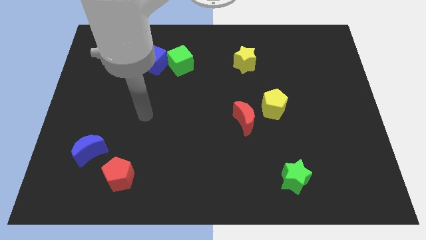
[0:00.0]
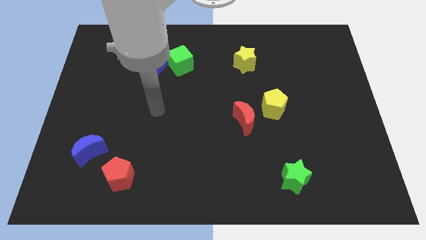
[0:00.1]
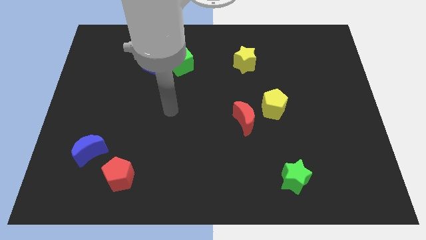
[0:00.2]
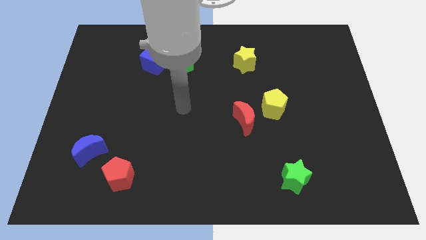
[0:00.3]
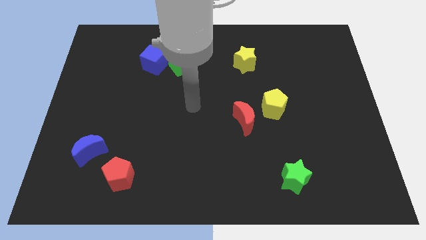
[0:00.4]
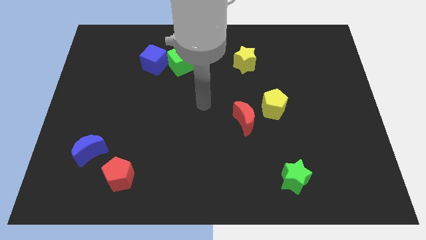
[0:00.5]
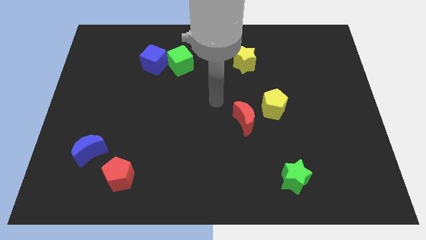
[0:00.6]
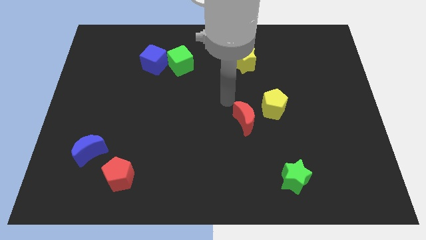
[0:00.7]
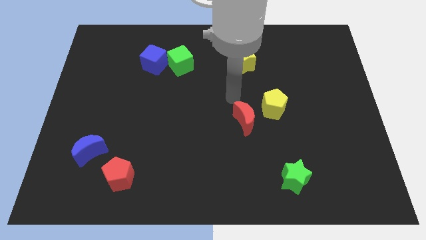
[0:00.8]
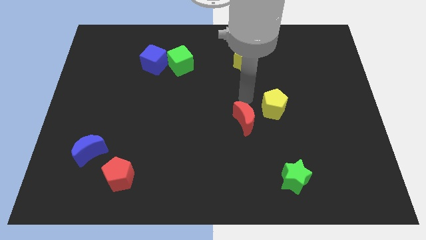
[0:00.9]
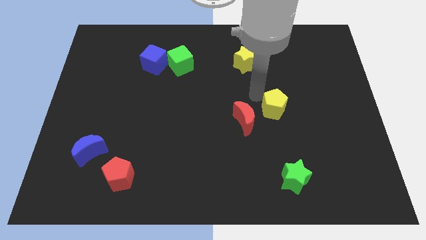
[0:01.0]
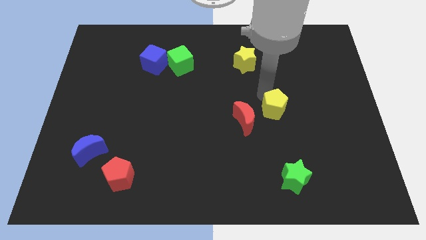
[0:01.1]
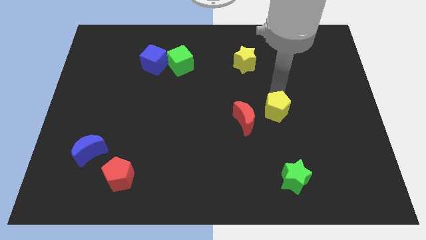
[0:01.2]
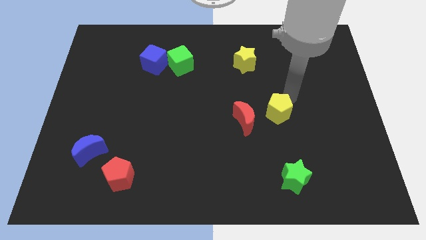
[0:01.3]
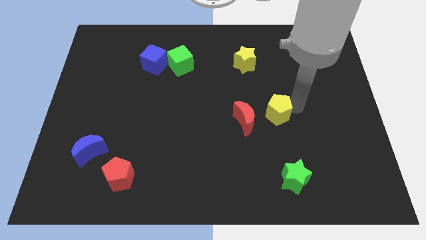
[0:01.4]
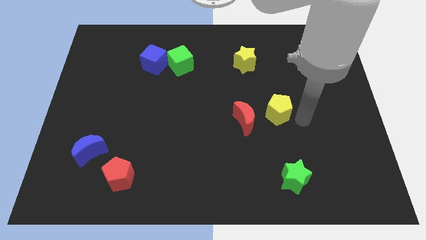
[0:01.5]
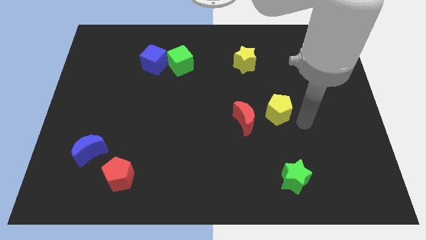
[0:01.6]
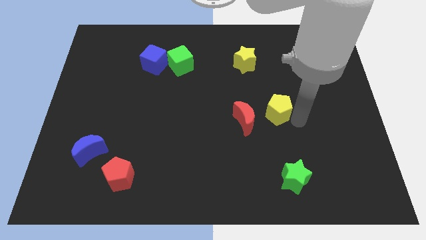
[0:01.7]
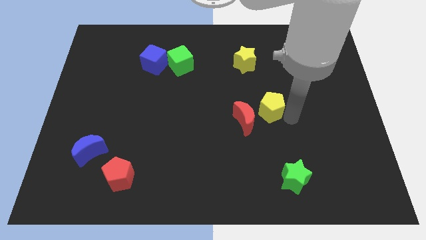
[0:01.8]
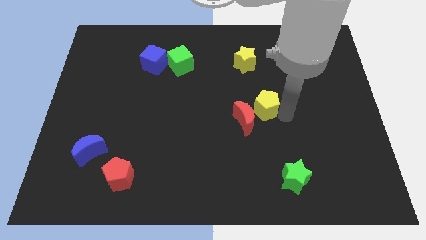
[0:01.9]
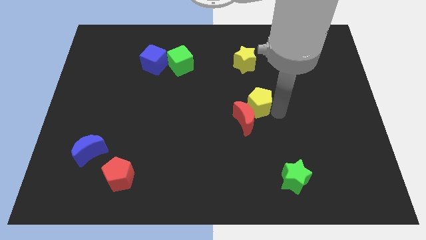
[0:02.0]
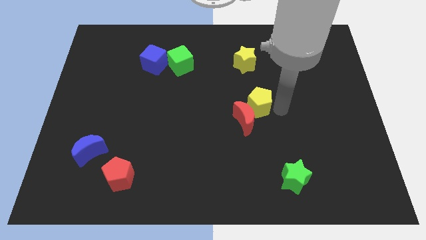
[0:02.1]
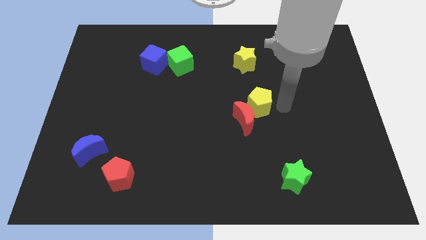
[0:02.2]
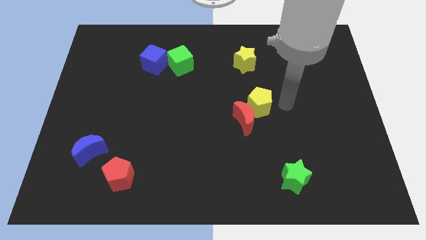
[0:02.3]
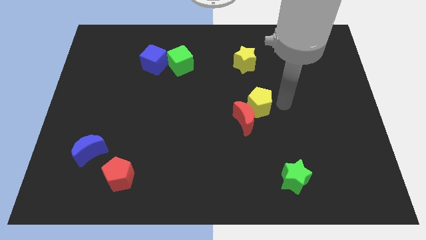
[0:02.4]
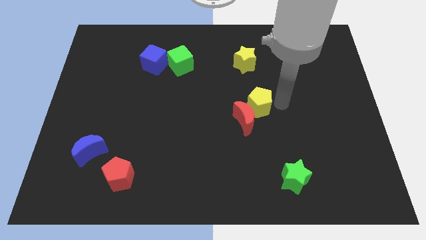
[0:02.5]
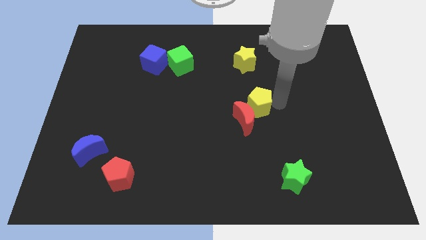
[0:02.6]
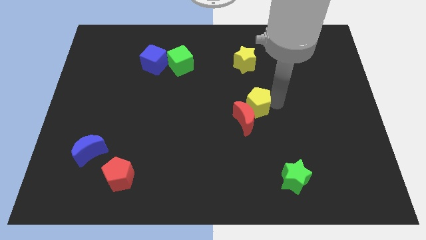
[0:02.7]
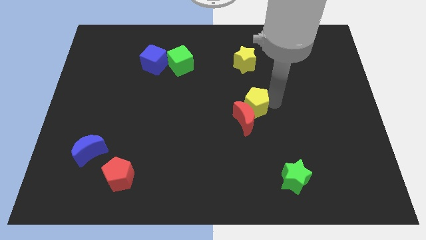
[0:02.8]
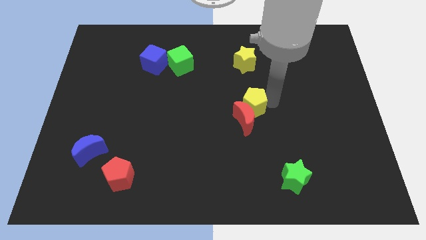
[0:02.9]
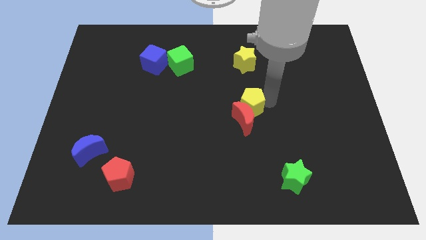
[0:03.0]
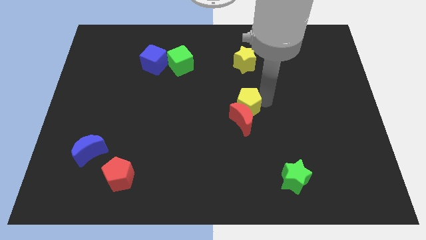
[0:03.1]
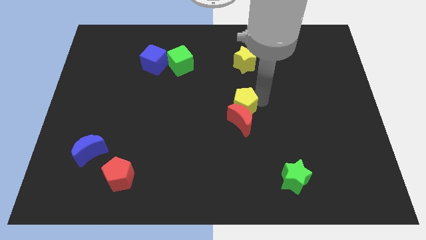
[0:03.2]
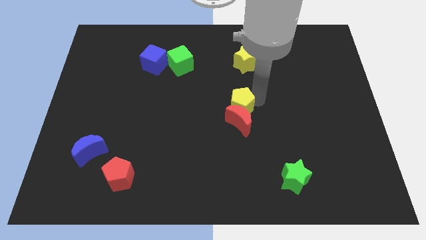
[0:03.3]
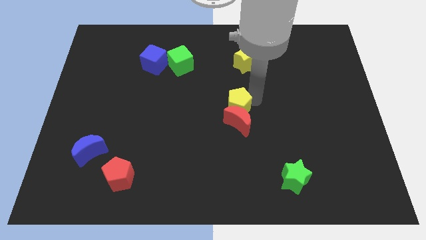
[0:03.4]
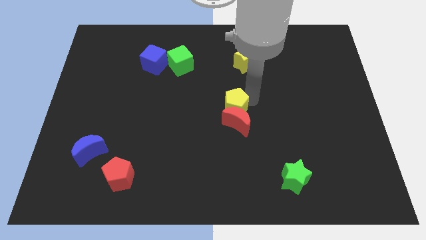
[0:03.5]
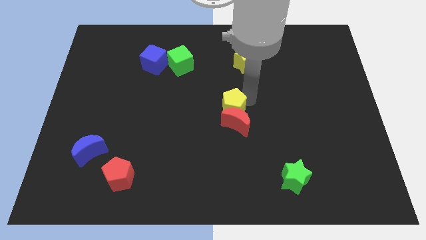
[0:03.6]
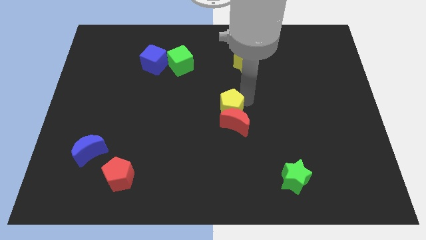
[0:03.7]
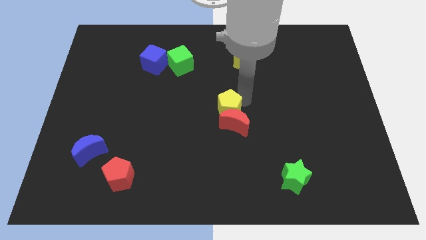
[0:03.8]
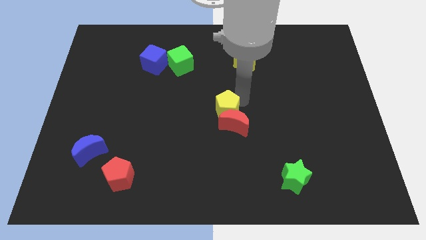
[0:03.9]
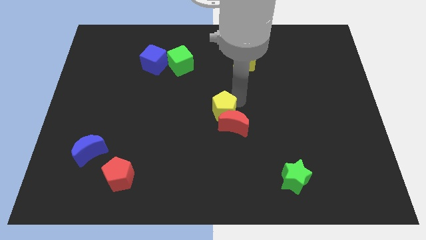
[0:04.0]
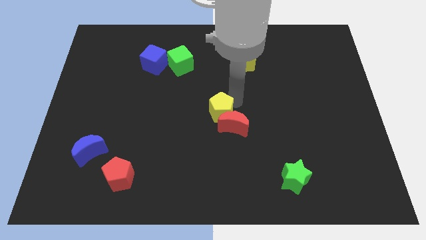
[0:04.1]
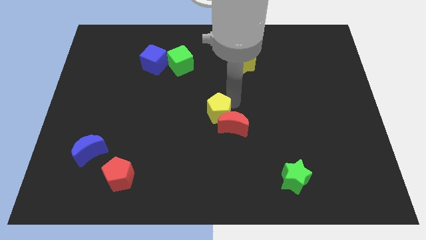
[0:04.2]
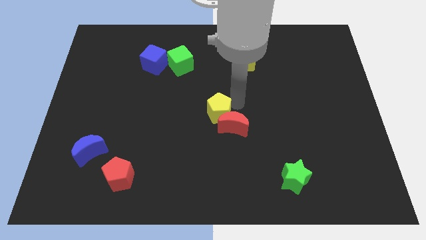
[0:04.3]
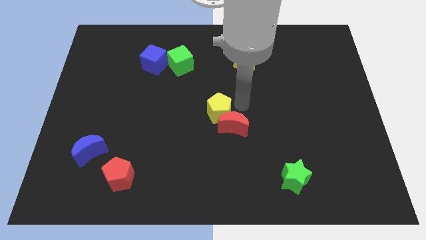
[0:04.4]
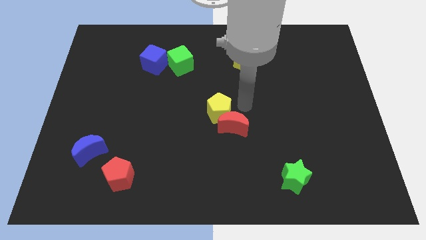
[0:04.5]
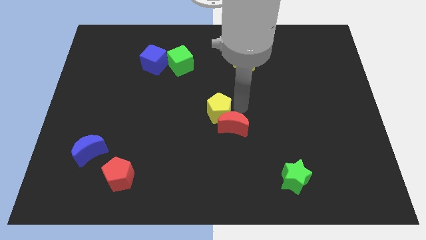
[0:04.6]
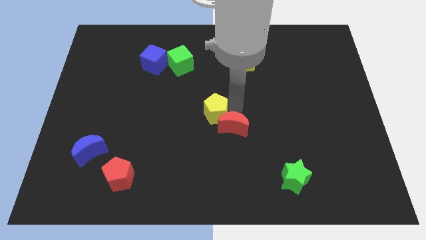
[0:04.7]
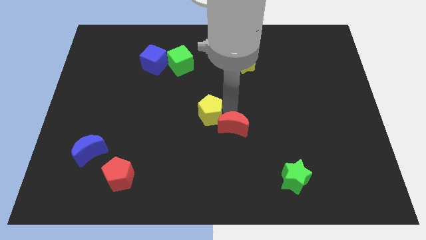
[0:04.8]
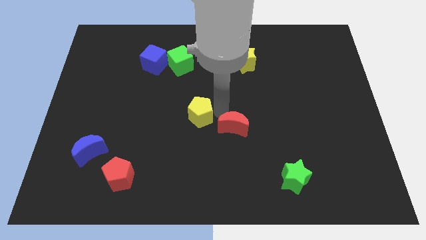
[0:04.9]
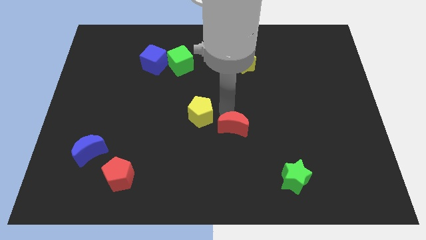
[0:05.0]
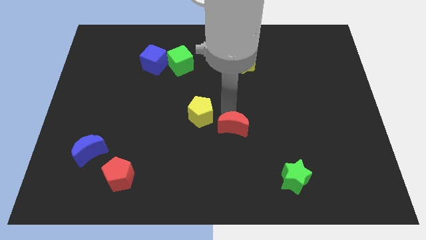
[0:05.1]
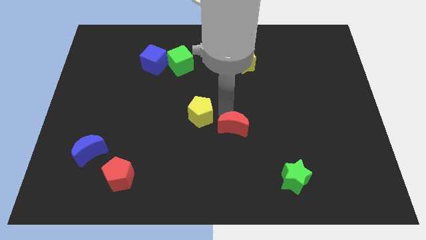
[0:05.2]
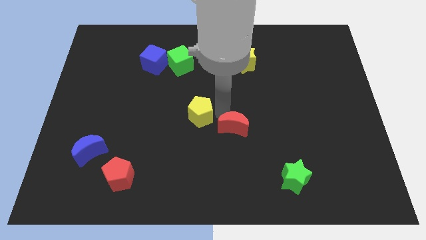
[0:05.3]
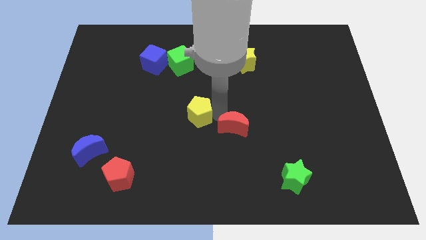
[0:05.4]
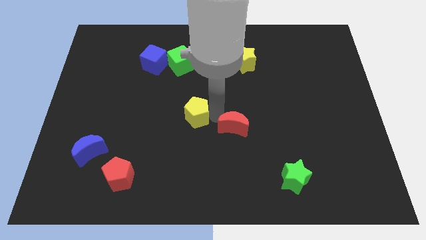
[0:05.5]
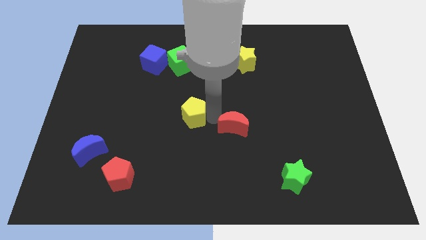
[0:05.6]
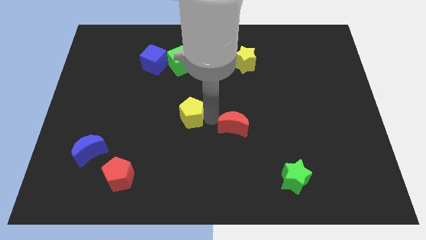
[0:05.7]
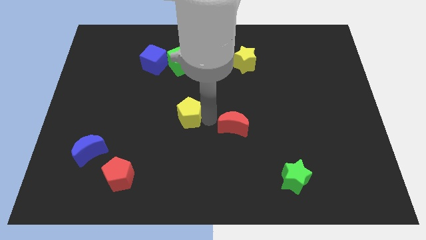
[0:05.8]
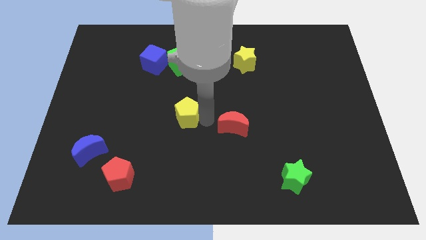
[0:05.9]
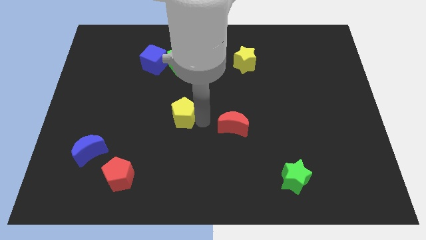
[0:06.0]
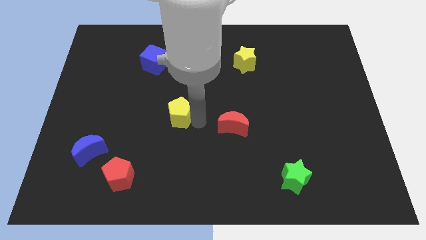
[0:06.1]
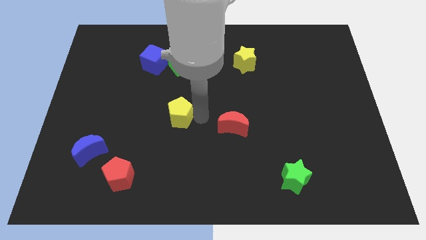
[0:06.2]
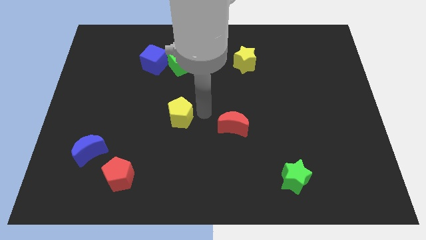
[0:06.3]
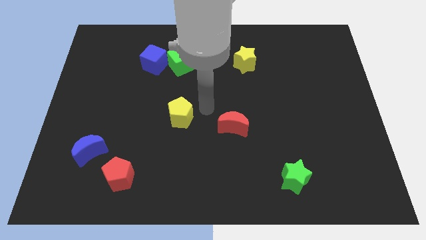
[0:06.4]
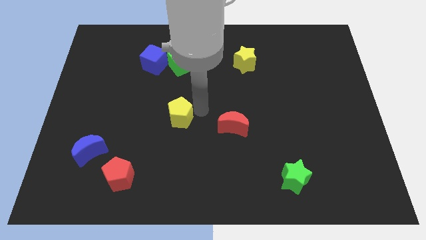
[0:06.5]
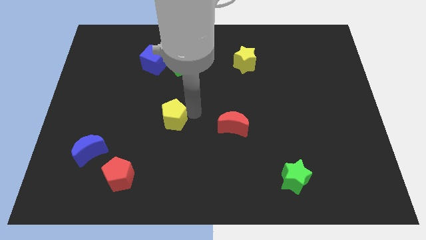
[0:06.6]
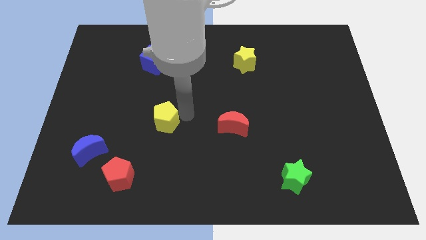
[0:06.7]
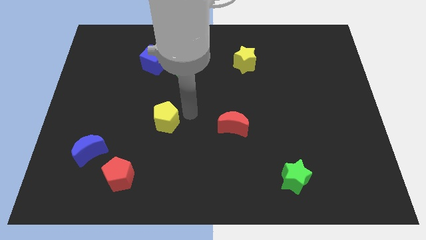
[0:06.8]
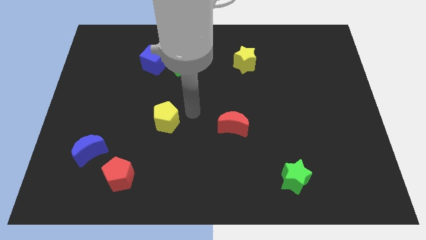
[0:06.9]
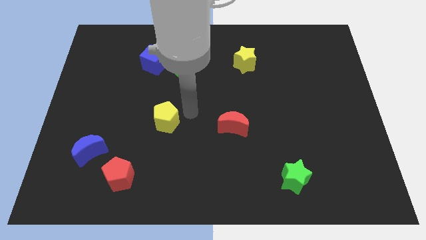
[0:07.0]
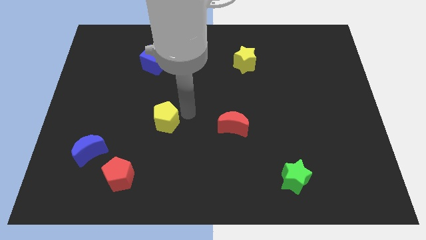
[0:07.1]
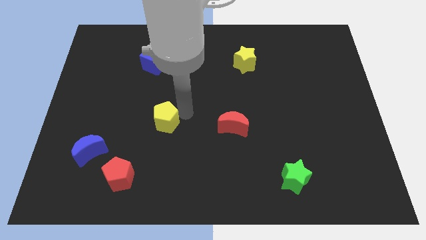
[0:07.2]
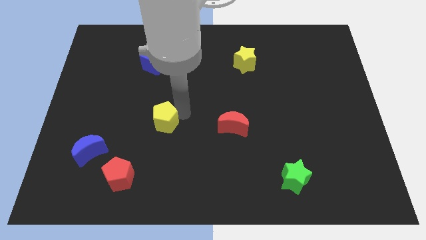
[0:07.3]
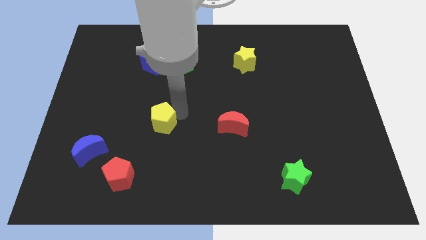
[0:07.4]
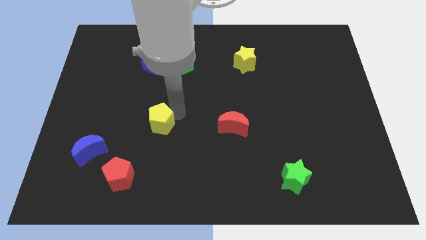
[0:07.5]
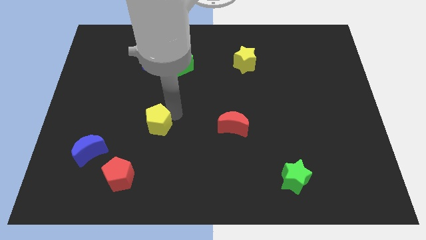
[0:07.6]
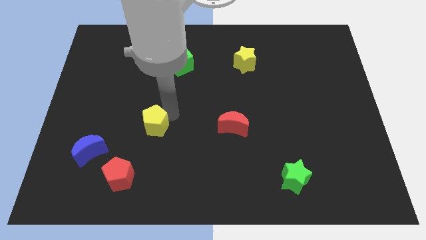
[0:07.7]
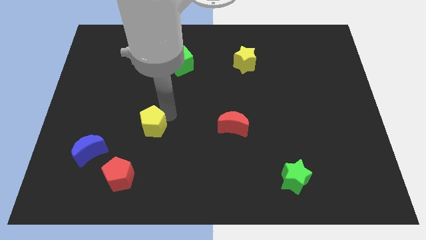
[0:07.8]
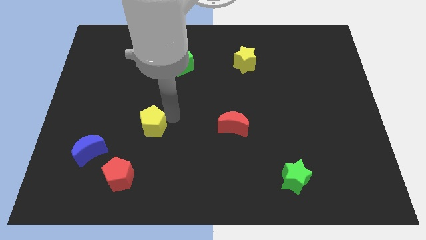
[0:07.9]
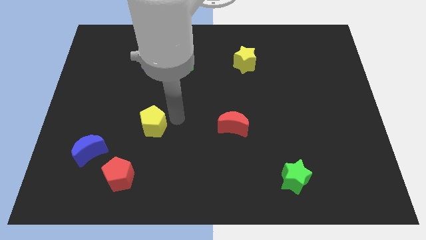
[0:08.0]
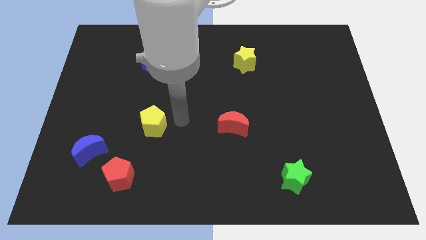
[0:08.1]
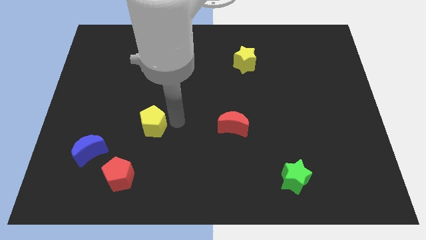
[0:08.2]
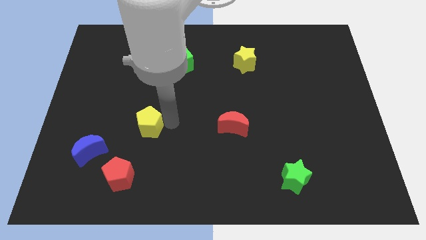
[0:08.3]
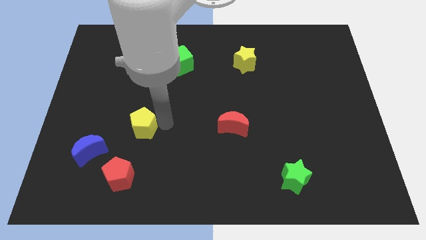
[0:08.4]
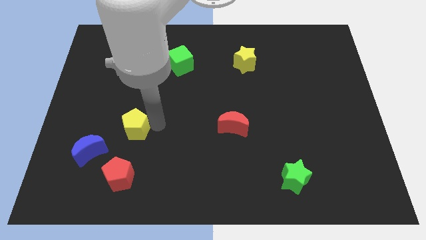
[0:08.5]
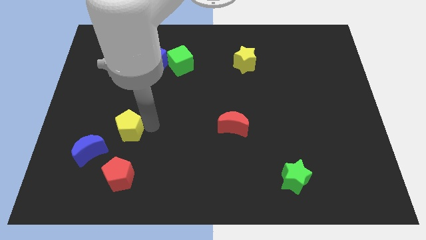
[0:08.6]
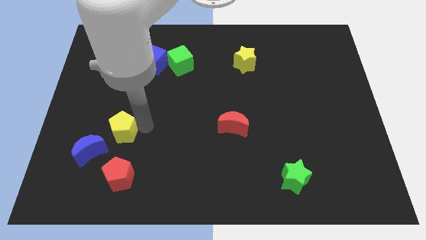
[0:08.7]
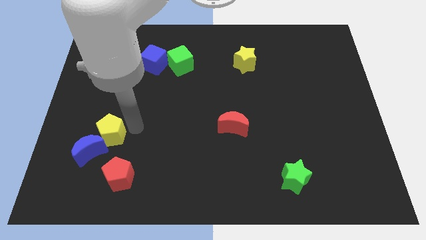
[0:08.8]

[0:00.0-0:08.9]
slide the yellow pentagon towards the blue moon
